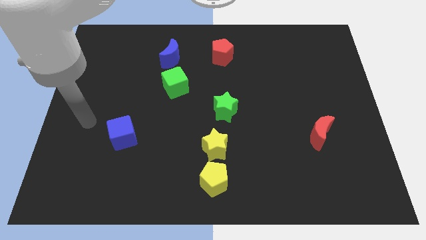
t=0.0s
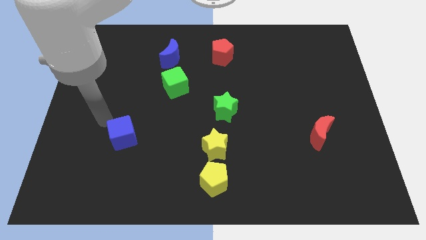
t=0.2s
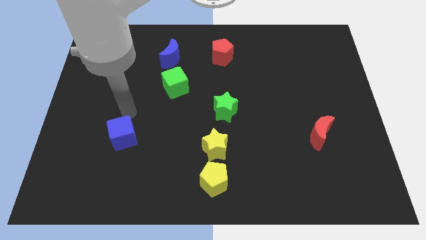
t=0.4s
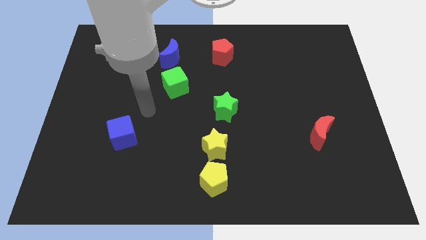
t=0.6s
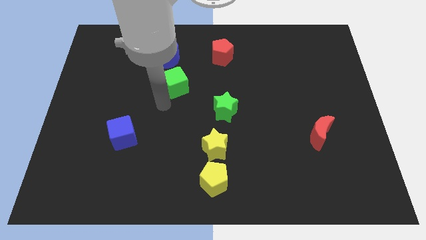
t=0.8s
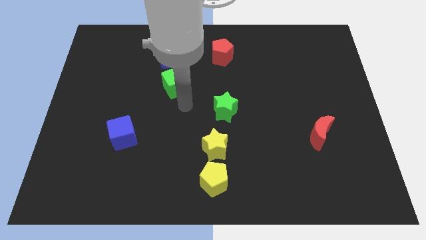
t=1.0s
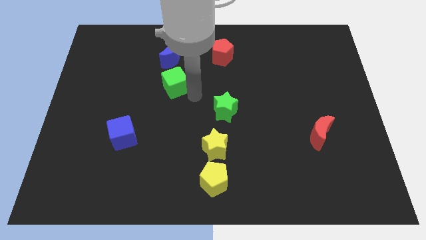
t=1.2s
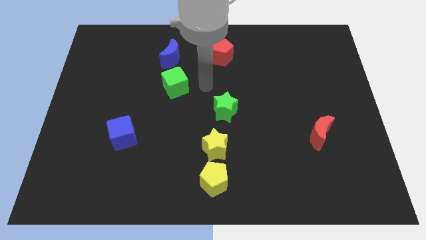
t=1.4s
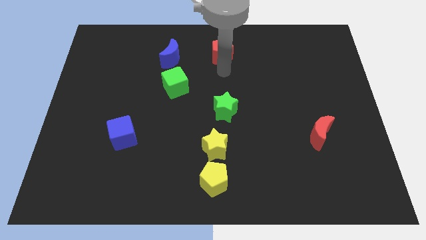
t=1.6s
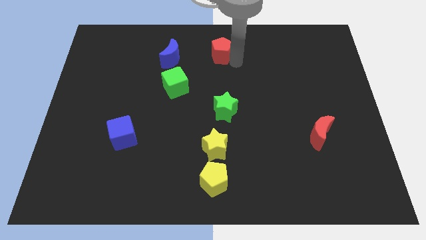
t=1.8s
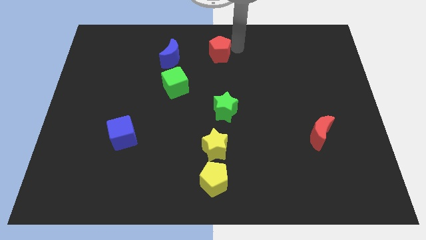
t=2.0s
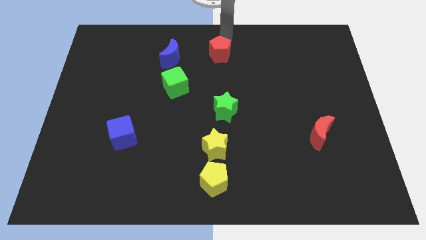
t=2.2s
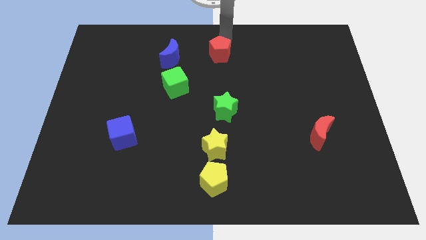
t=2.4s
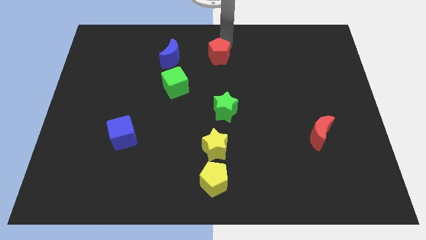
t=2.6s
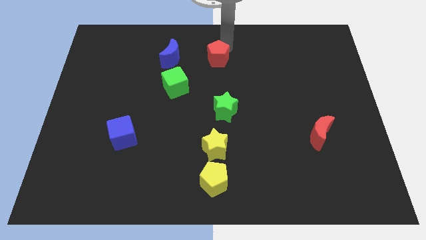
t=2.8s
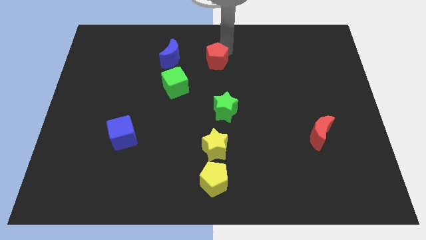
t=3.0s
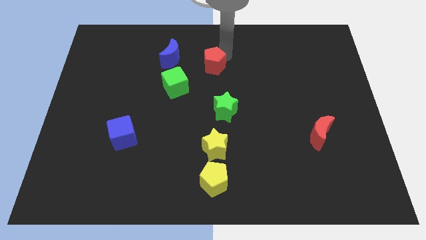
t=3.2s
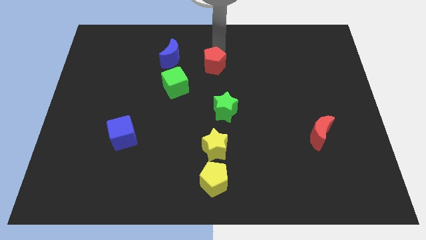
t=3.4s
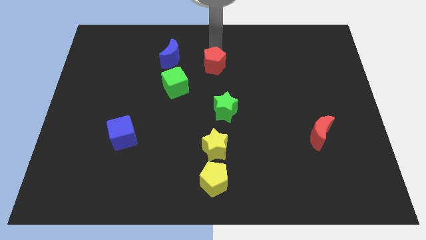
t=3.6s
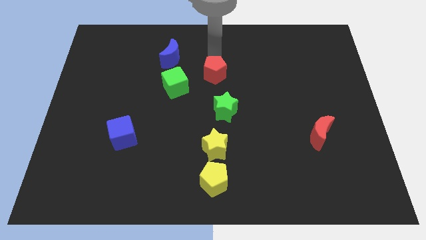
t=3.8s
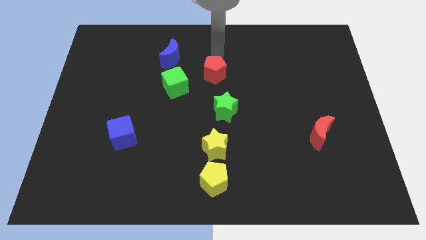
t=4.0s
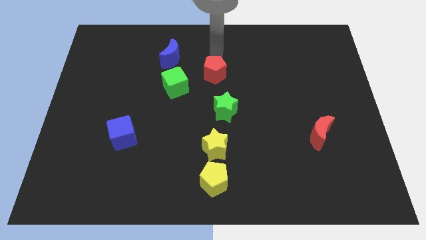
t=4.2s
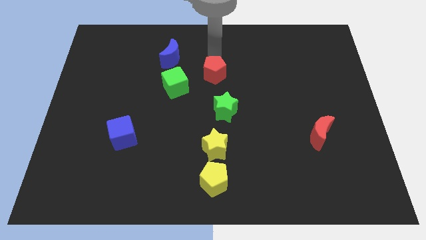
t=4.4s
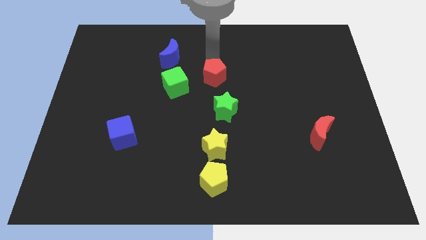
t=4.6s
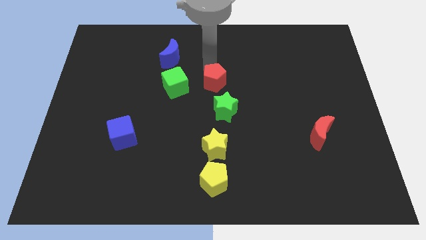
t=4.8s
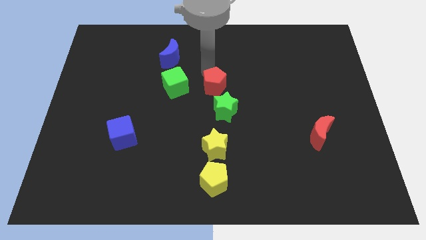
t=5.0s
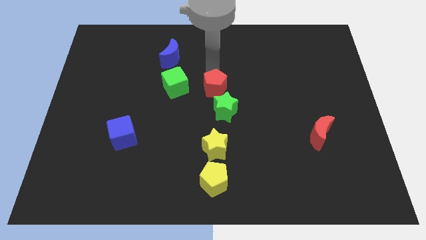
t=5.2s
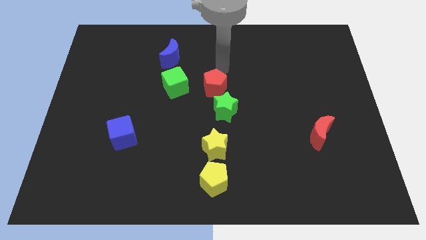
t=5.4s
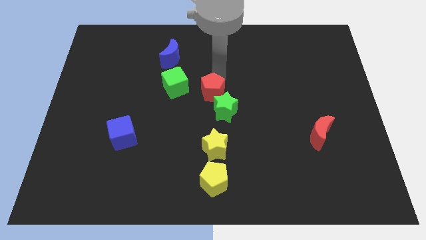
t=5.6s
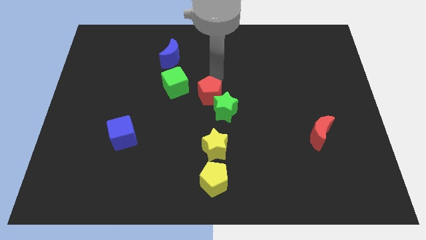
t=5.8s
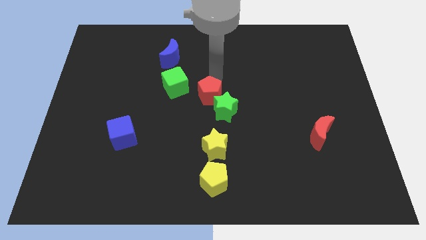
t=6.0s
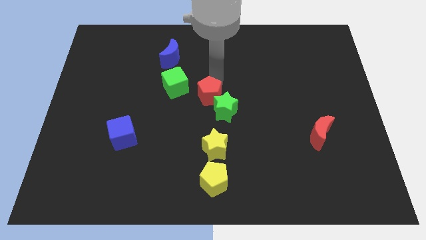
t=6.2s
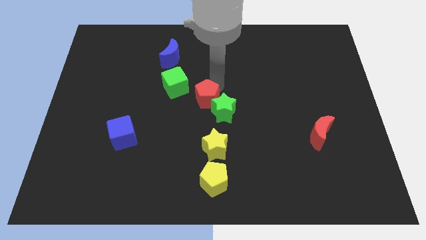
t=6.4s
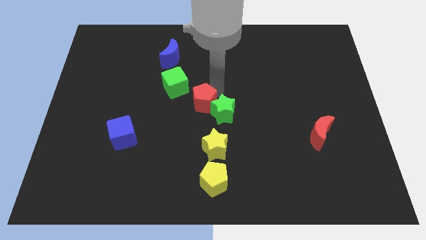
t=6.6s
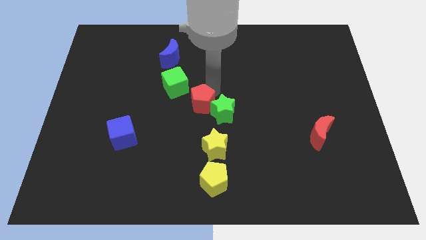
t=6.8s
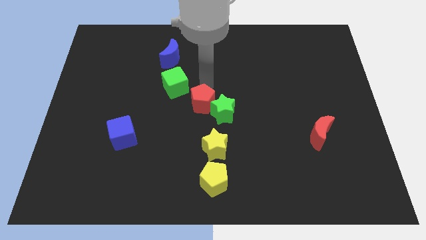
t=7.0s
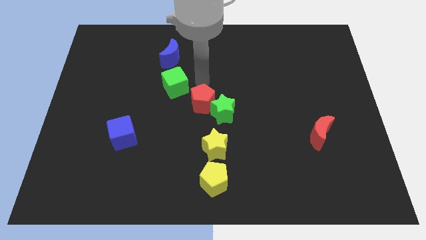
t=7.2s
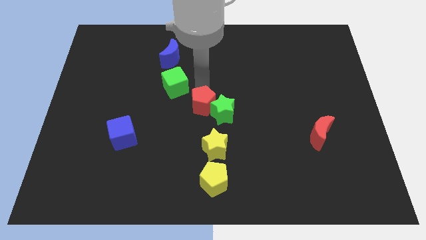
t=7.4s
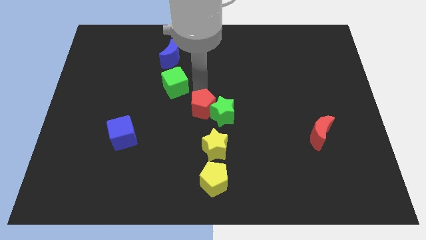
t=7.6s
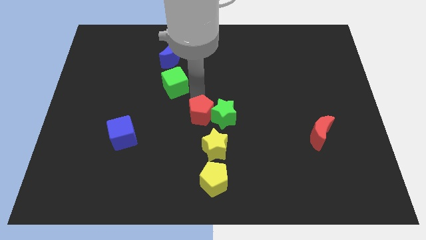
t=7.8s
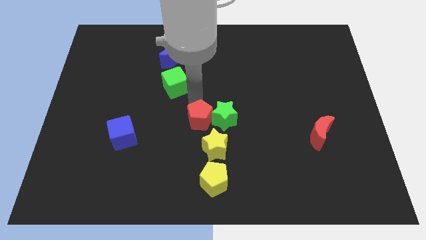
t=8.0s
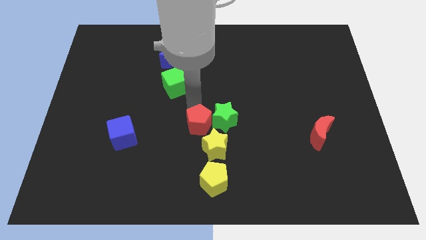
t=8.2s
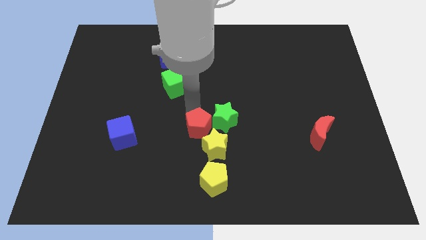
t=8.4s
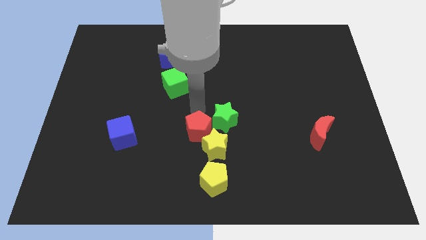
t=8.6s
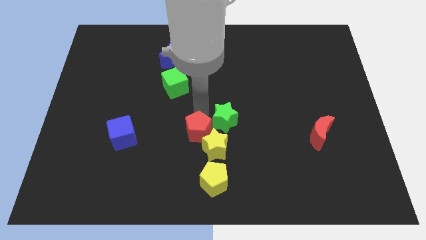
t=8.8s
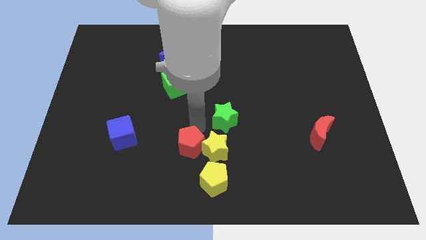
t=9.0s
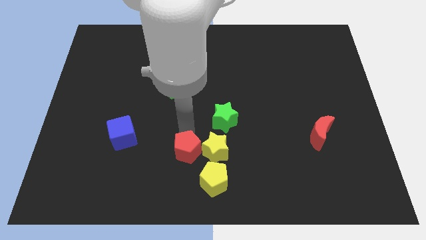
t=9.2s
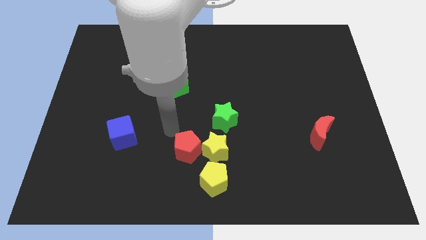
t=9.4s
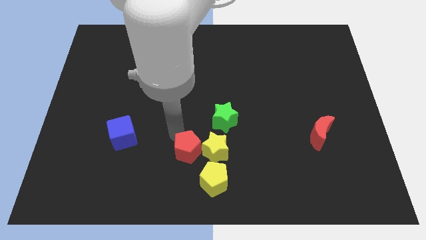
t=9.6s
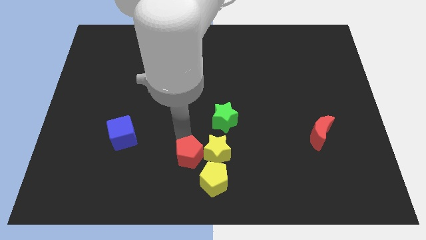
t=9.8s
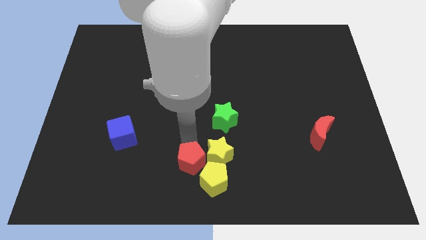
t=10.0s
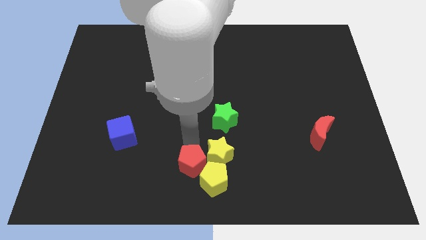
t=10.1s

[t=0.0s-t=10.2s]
push the red pentagon towards the yellow pentagon

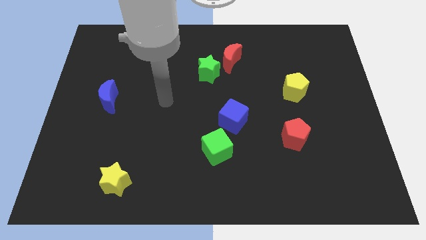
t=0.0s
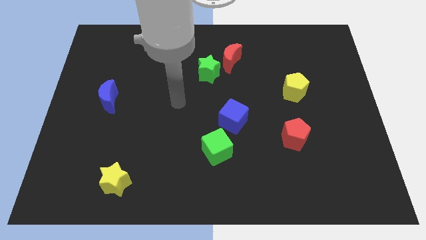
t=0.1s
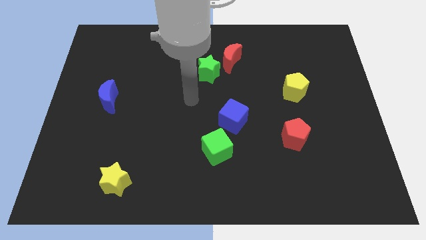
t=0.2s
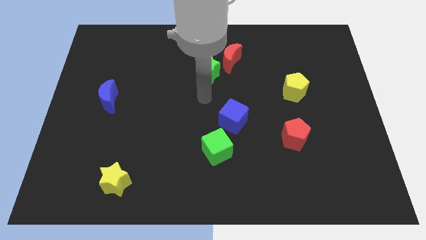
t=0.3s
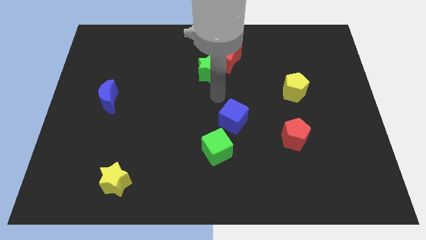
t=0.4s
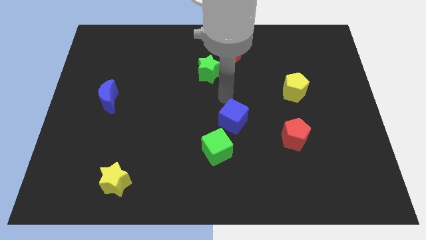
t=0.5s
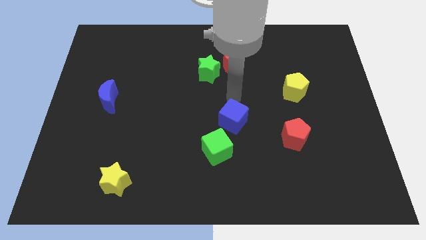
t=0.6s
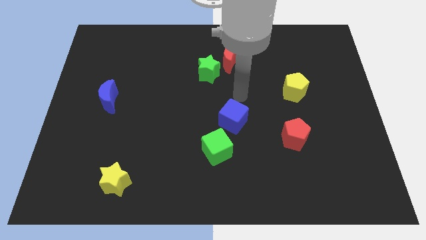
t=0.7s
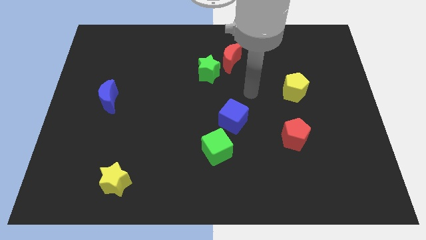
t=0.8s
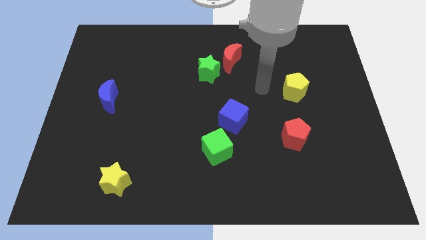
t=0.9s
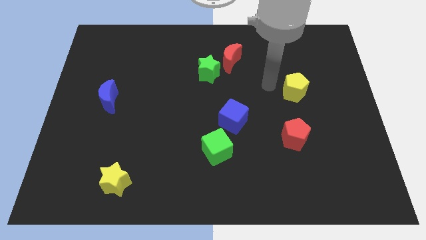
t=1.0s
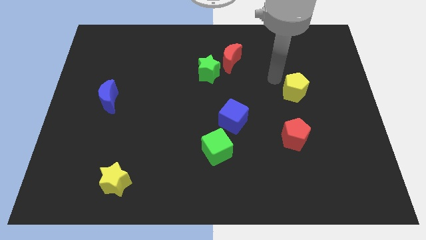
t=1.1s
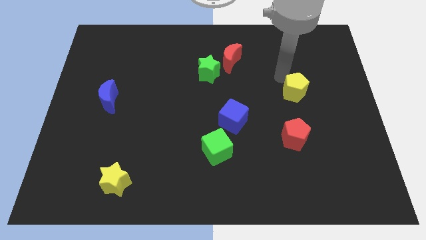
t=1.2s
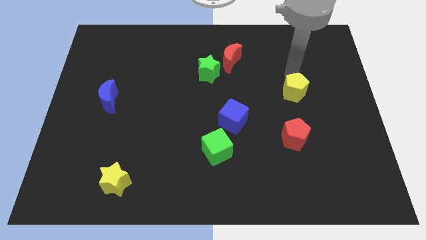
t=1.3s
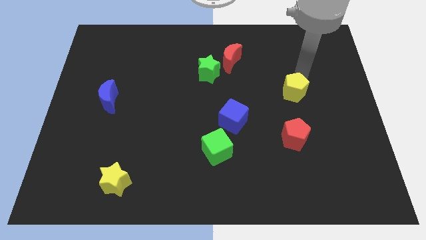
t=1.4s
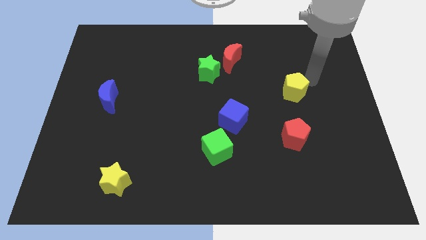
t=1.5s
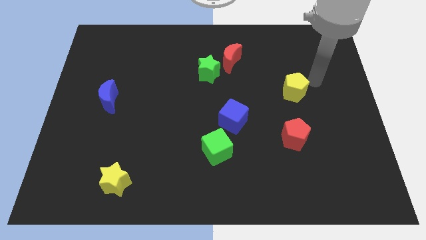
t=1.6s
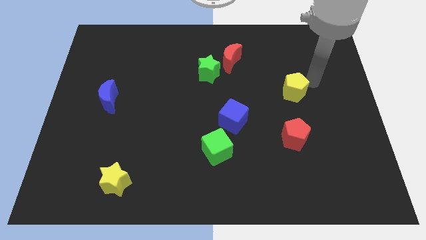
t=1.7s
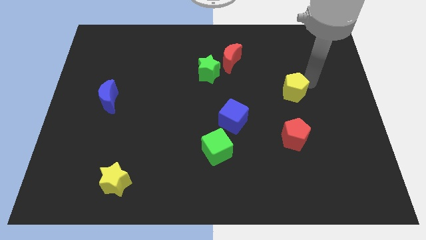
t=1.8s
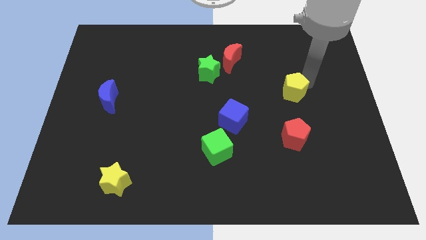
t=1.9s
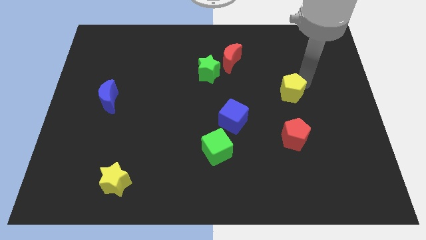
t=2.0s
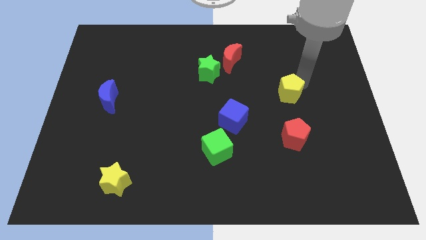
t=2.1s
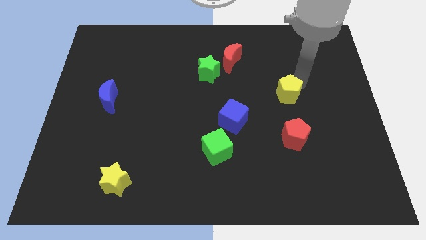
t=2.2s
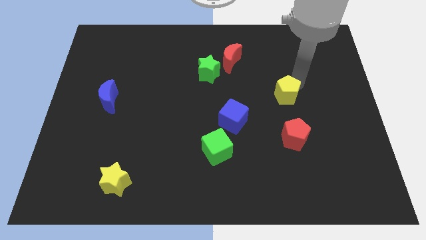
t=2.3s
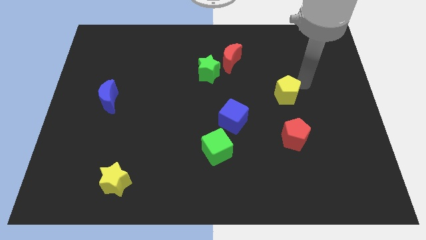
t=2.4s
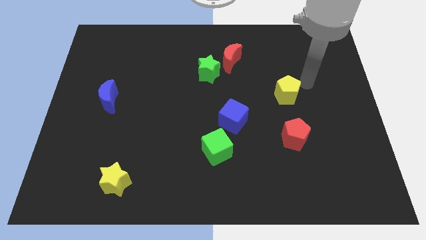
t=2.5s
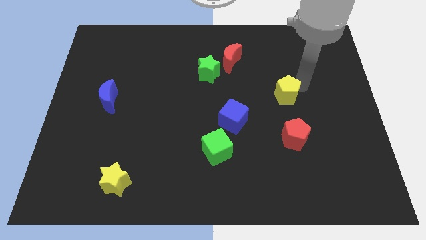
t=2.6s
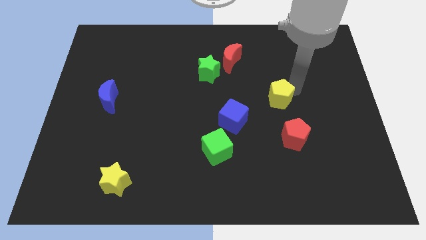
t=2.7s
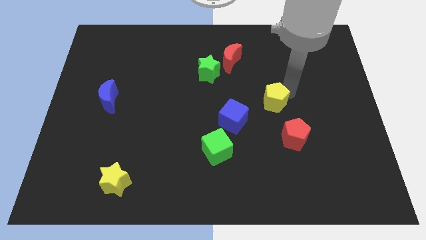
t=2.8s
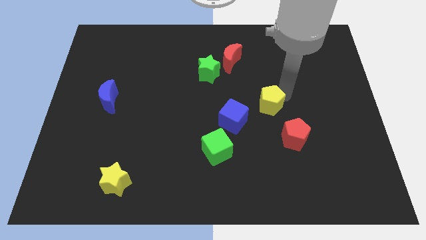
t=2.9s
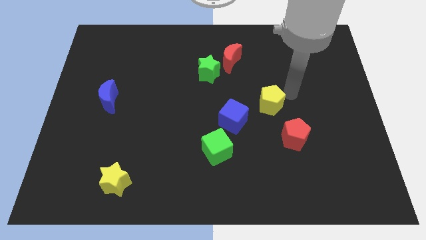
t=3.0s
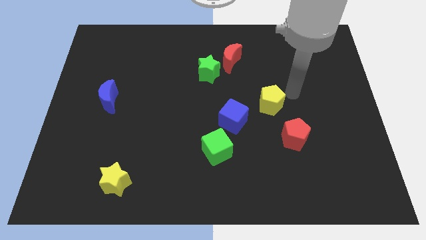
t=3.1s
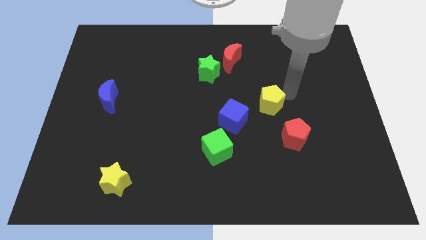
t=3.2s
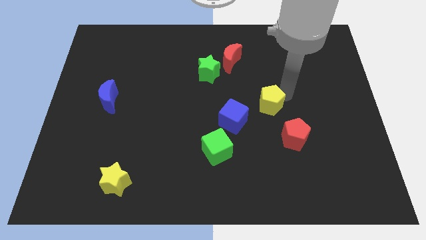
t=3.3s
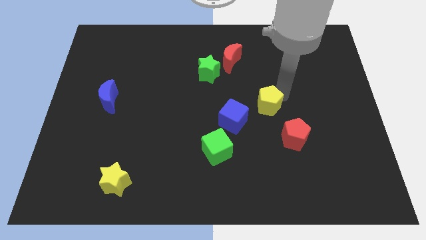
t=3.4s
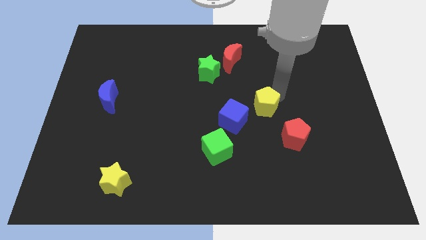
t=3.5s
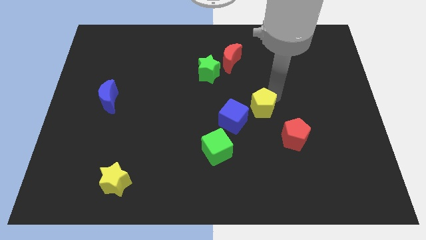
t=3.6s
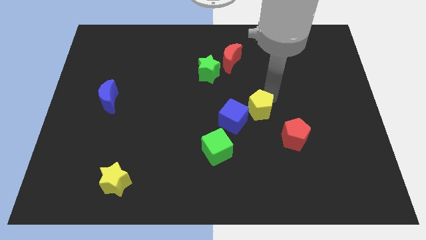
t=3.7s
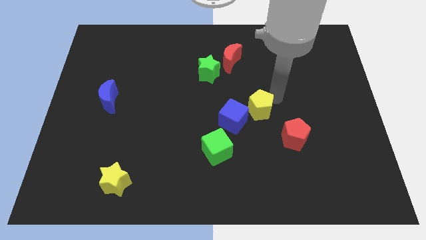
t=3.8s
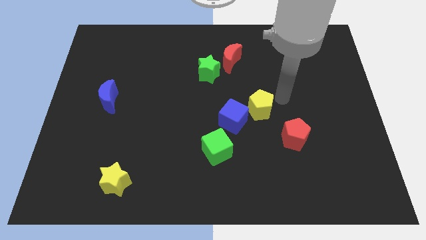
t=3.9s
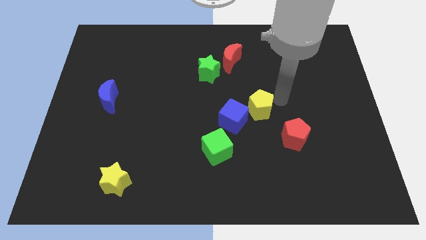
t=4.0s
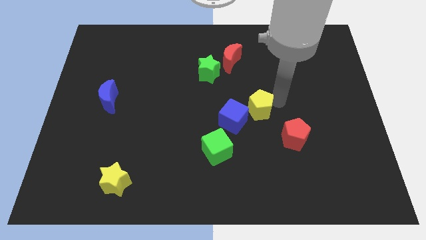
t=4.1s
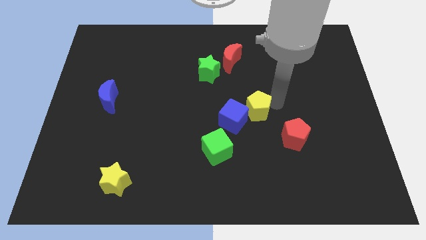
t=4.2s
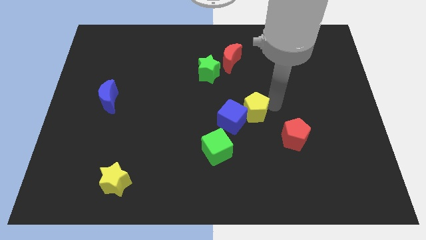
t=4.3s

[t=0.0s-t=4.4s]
push the yellow pentagon to the blue cube
